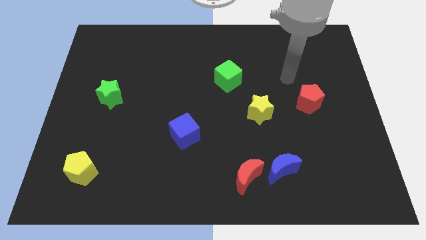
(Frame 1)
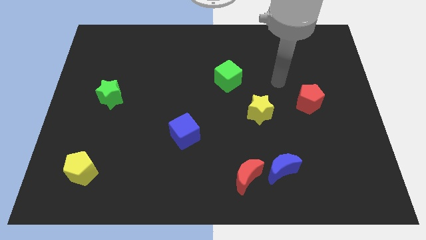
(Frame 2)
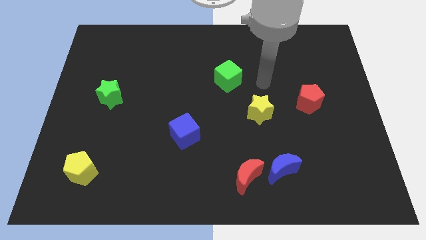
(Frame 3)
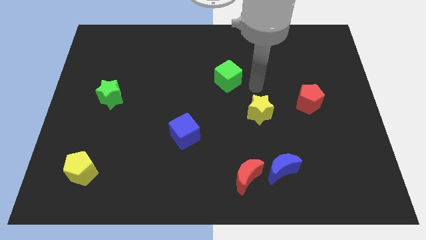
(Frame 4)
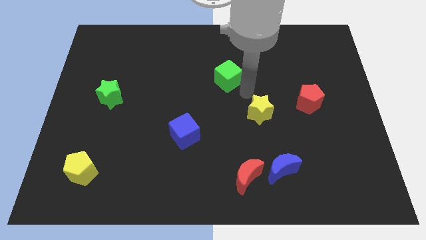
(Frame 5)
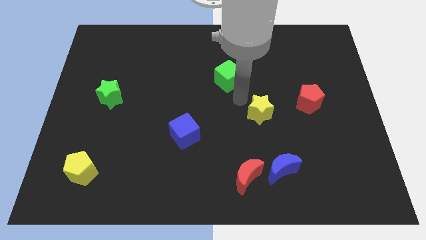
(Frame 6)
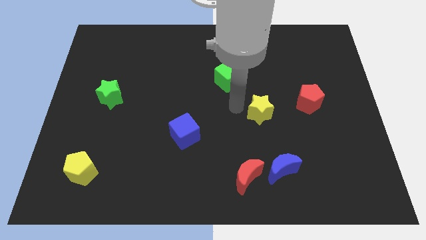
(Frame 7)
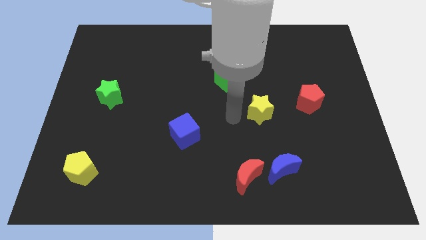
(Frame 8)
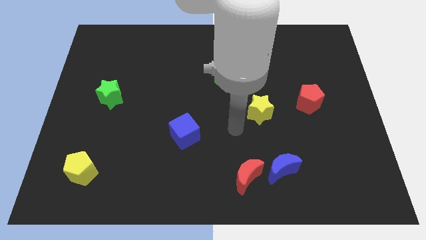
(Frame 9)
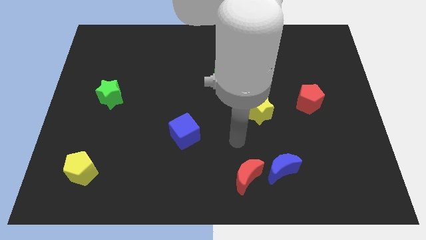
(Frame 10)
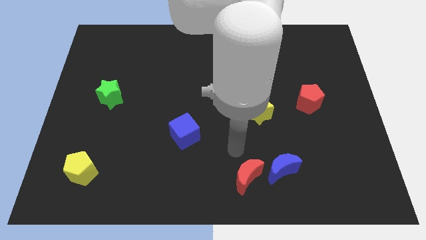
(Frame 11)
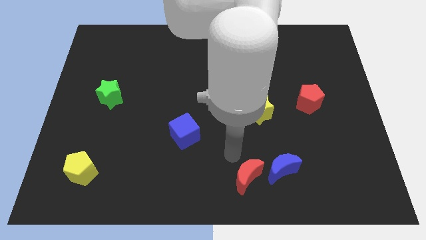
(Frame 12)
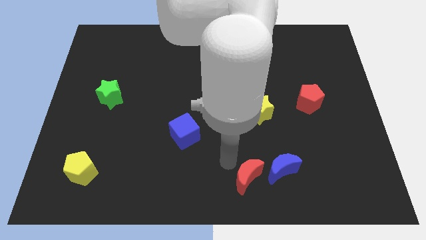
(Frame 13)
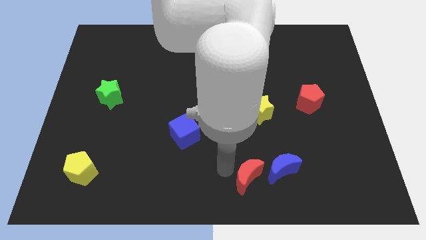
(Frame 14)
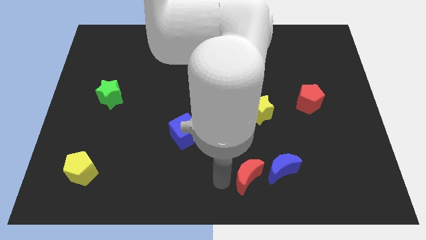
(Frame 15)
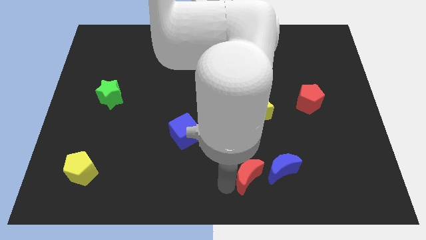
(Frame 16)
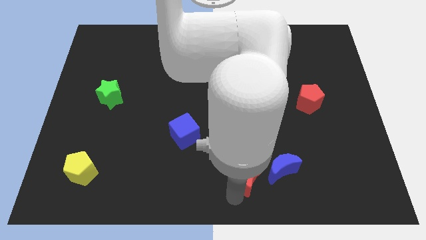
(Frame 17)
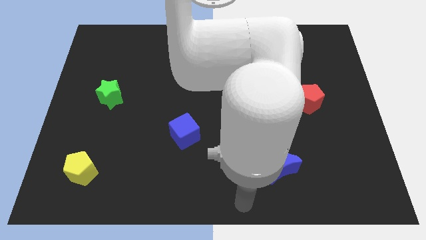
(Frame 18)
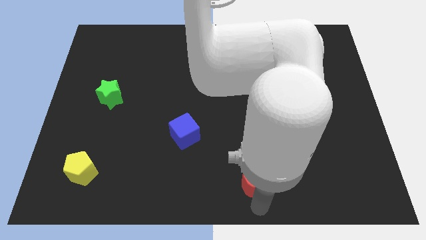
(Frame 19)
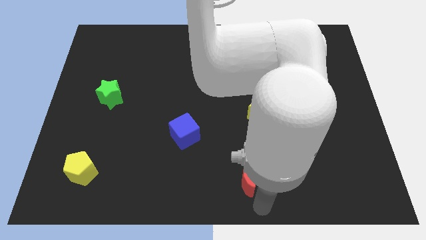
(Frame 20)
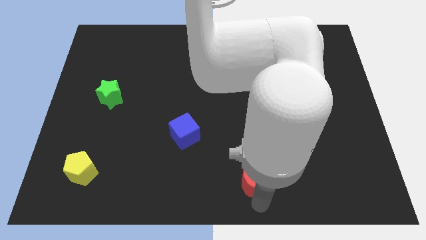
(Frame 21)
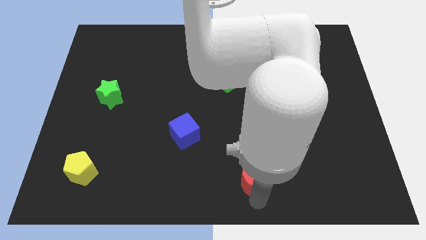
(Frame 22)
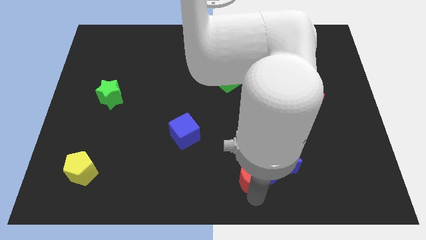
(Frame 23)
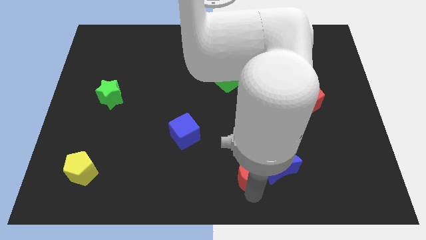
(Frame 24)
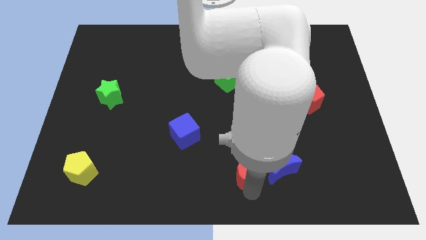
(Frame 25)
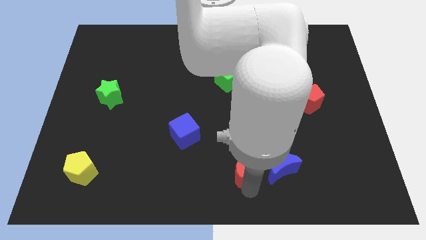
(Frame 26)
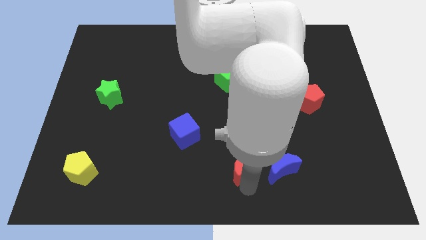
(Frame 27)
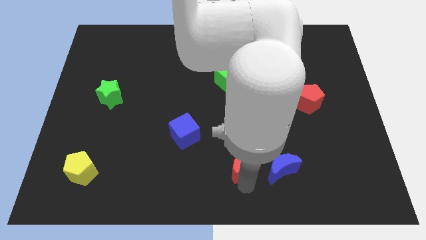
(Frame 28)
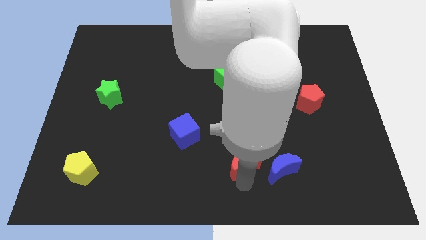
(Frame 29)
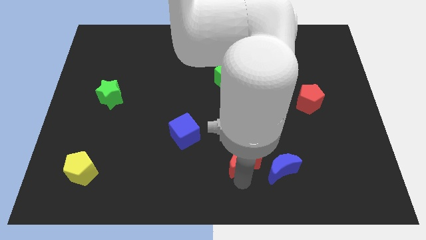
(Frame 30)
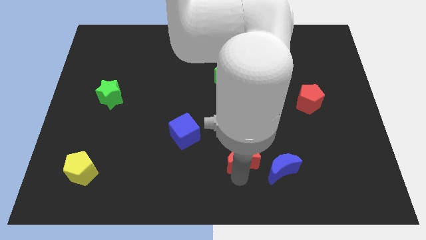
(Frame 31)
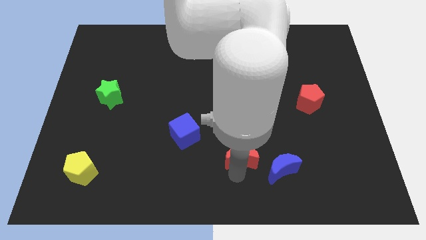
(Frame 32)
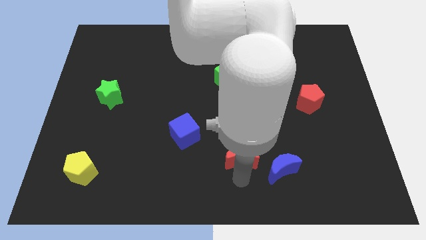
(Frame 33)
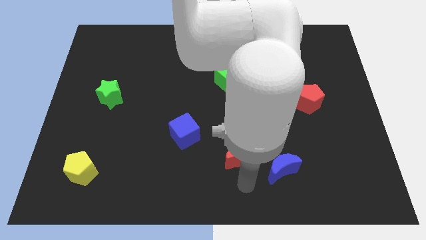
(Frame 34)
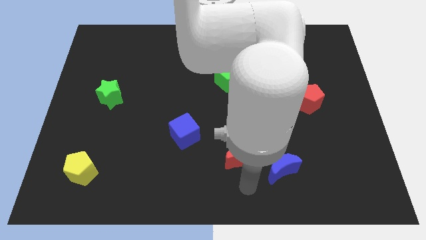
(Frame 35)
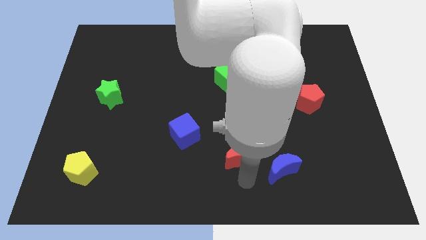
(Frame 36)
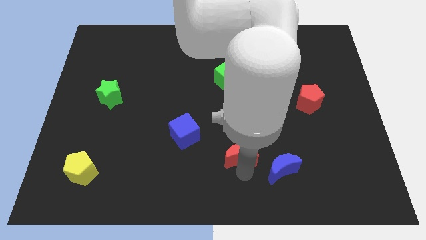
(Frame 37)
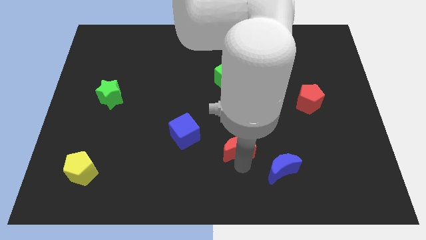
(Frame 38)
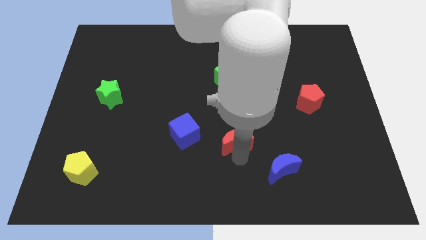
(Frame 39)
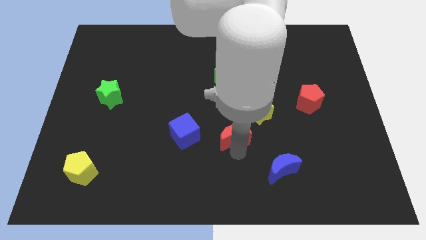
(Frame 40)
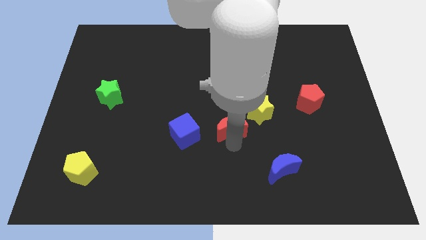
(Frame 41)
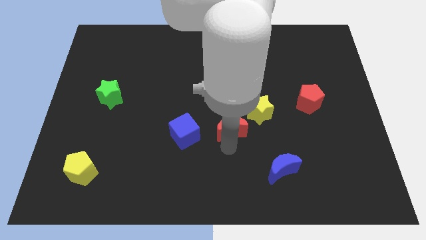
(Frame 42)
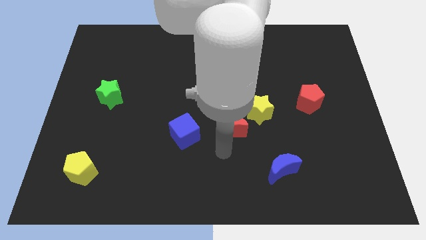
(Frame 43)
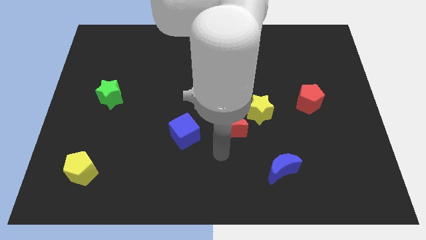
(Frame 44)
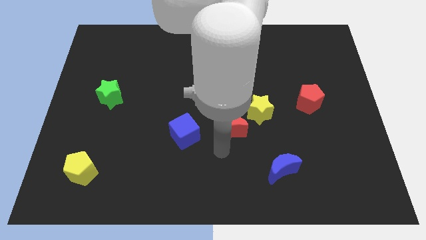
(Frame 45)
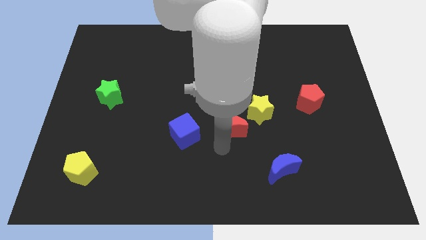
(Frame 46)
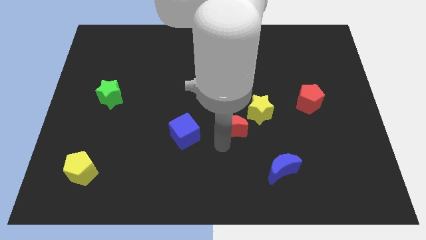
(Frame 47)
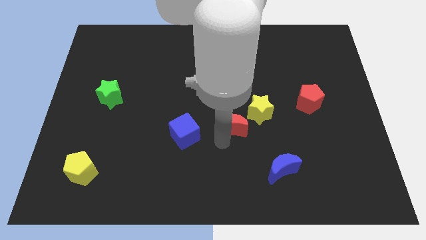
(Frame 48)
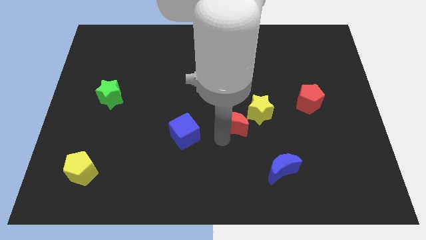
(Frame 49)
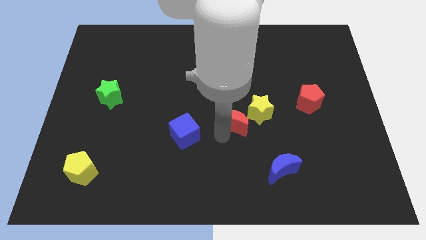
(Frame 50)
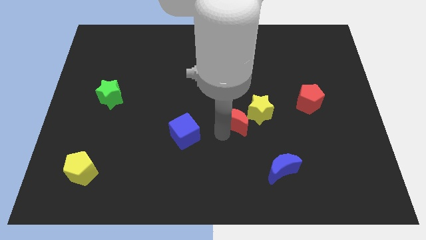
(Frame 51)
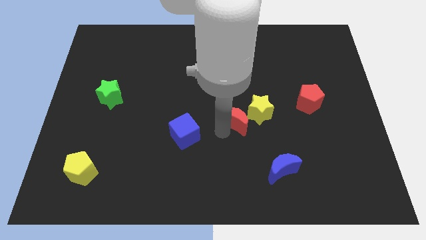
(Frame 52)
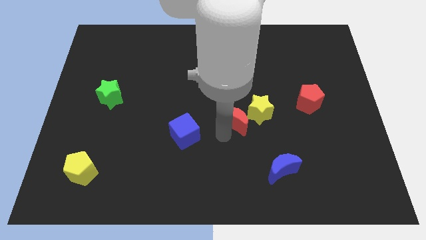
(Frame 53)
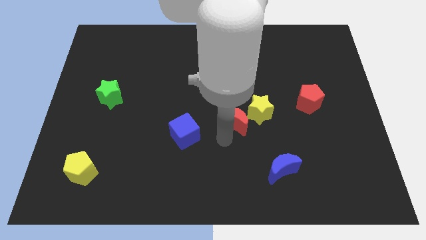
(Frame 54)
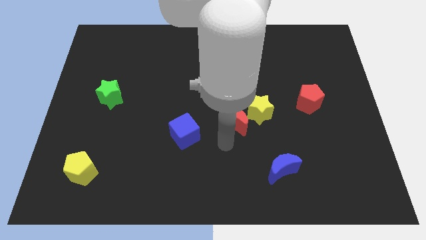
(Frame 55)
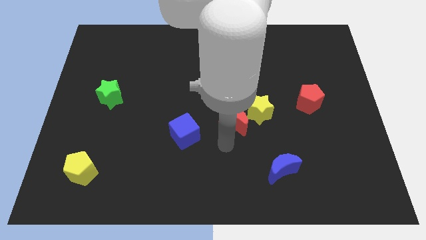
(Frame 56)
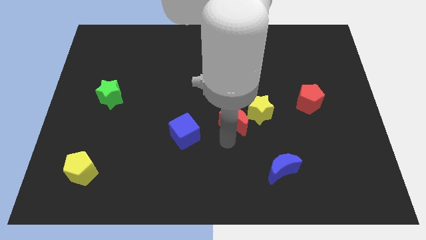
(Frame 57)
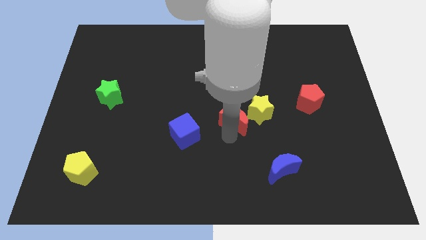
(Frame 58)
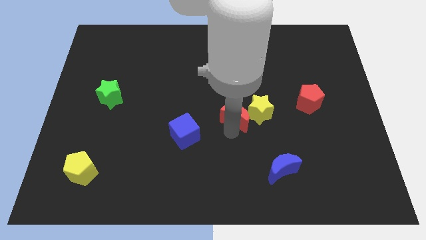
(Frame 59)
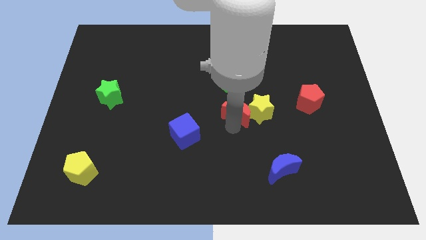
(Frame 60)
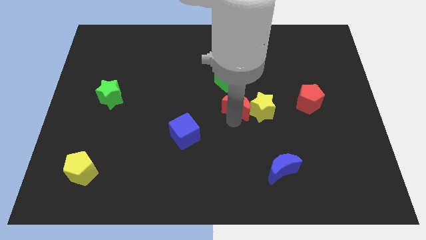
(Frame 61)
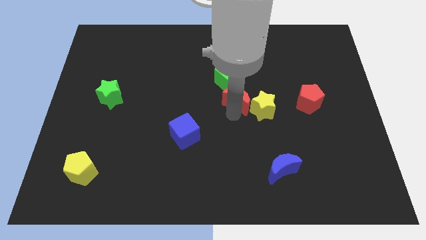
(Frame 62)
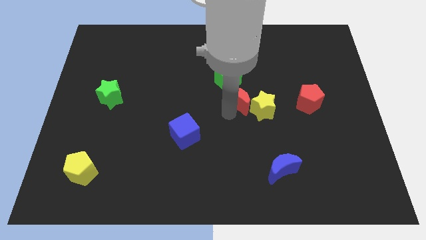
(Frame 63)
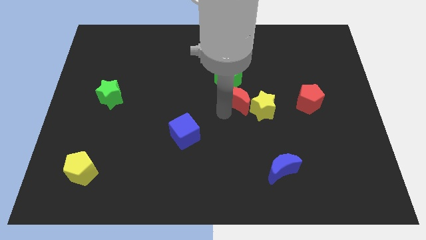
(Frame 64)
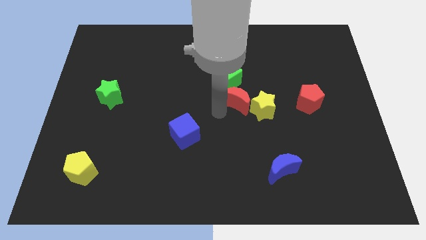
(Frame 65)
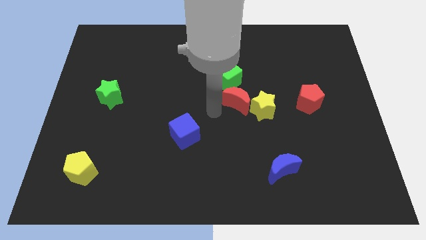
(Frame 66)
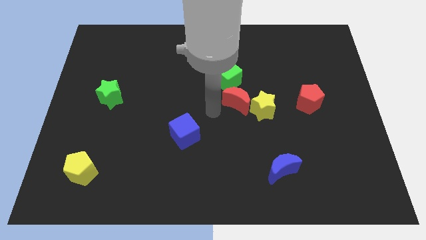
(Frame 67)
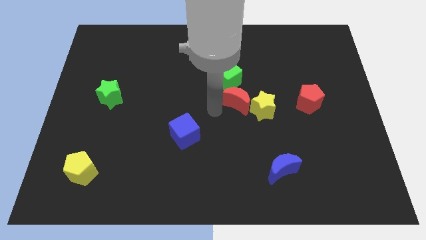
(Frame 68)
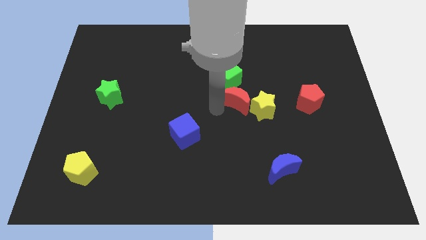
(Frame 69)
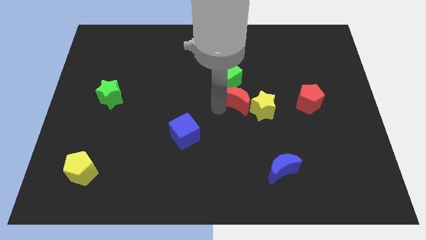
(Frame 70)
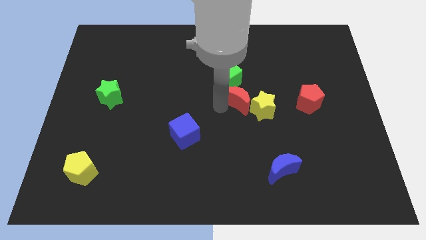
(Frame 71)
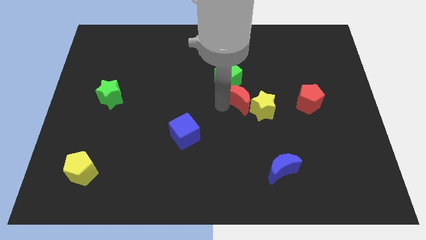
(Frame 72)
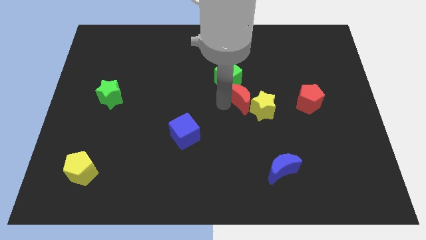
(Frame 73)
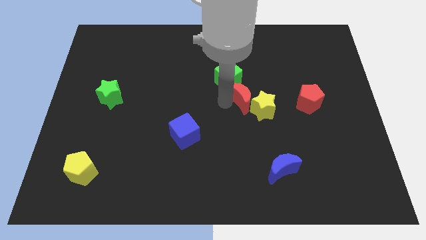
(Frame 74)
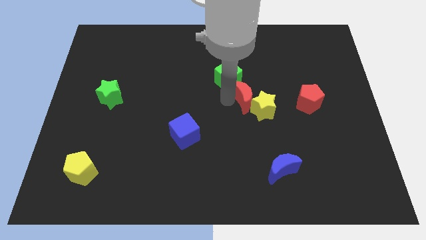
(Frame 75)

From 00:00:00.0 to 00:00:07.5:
move the red moon above the yellow star
